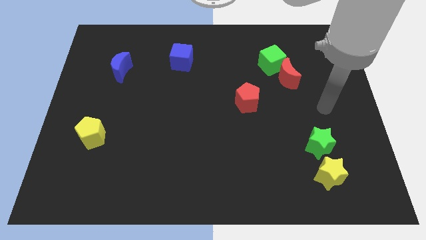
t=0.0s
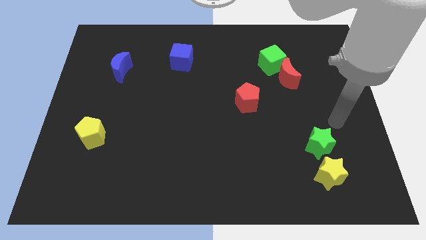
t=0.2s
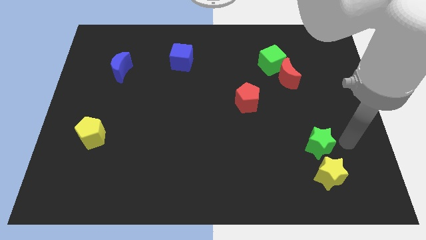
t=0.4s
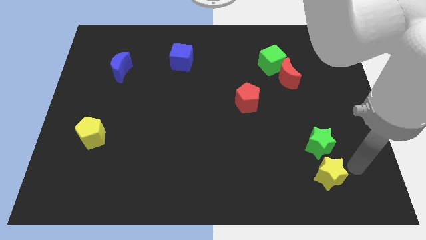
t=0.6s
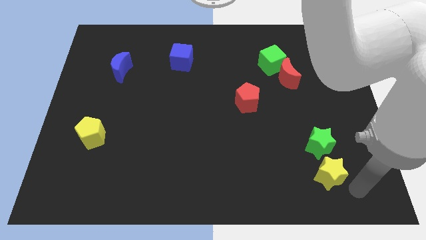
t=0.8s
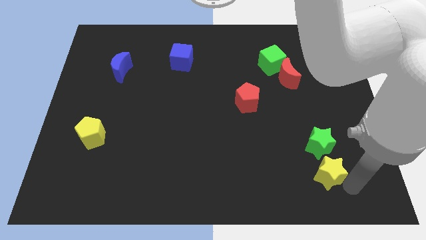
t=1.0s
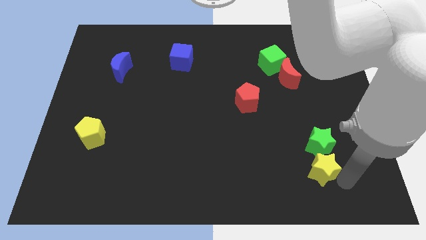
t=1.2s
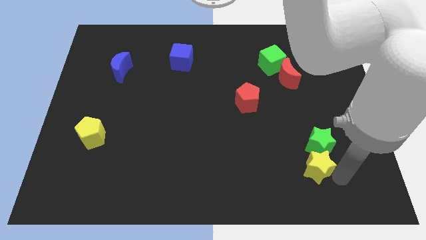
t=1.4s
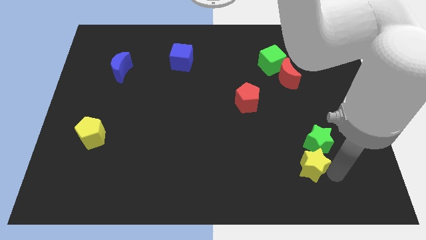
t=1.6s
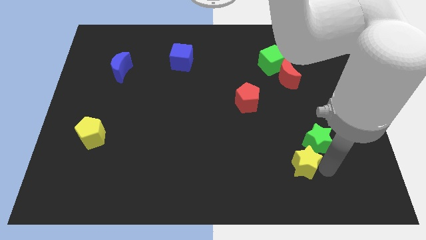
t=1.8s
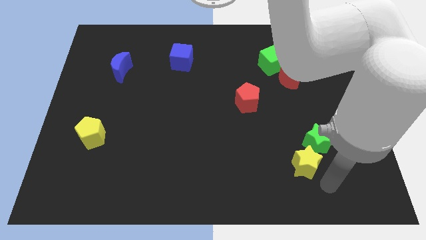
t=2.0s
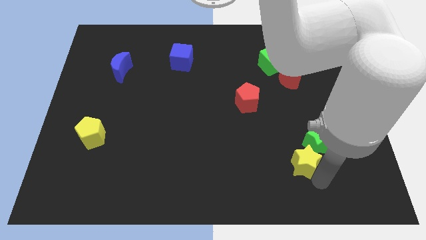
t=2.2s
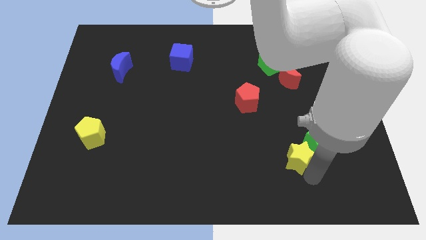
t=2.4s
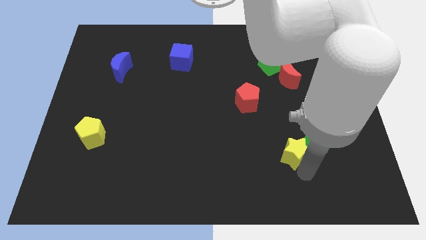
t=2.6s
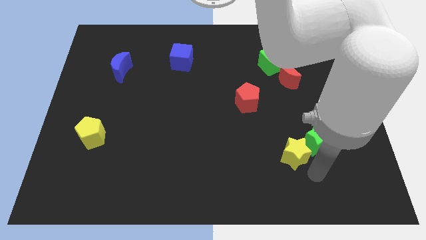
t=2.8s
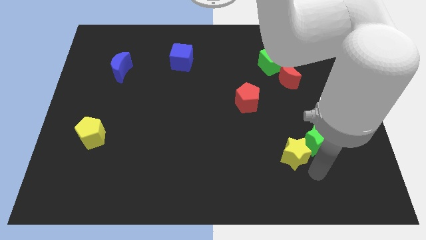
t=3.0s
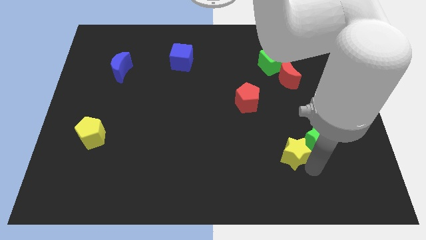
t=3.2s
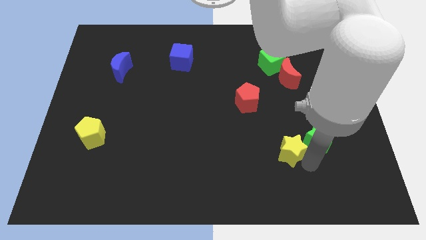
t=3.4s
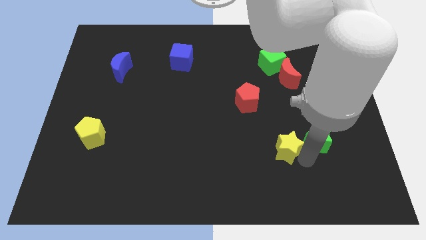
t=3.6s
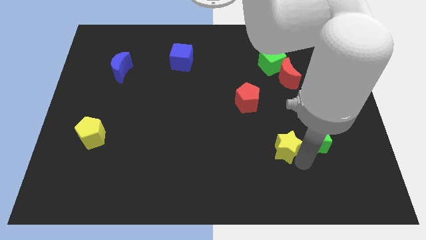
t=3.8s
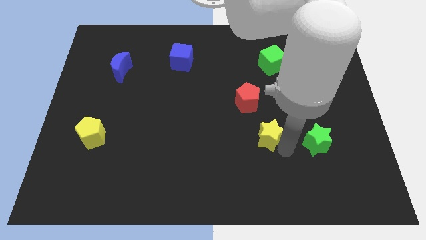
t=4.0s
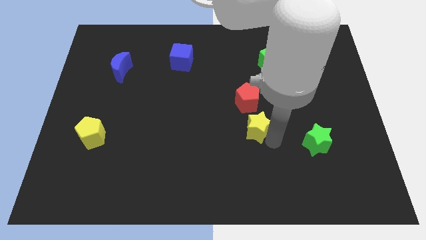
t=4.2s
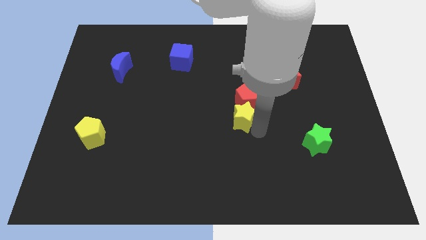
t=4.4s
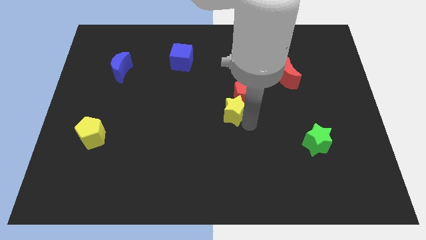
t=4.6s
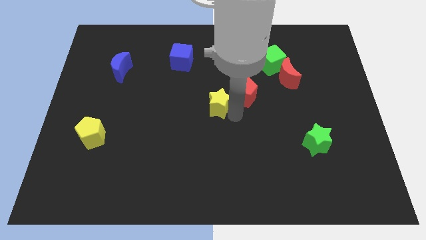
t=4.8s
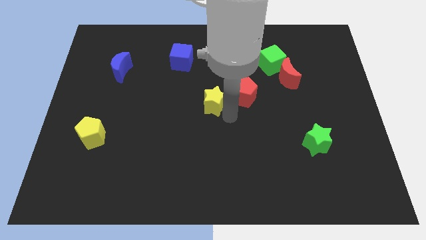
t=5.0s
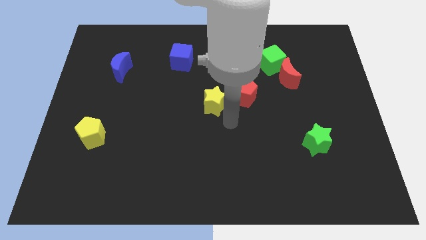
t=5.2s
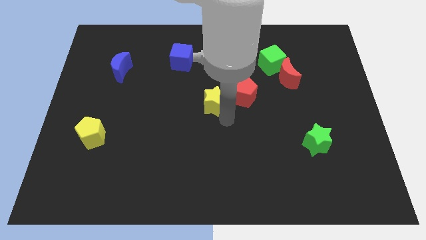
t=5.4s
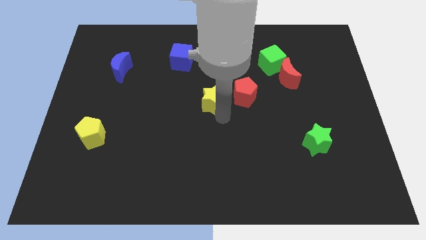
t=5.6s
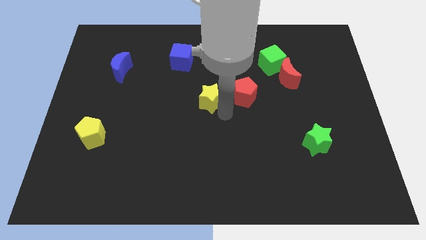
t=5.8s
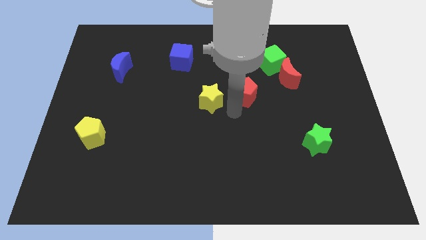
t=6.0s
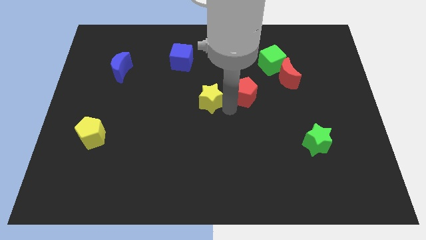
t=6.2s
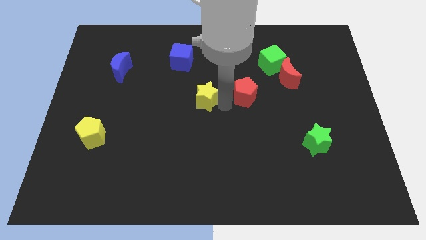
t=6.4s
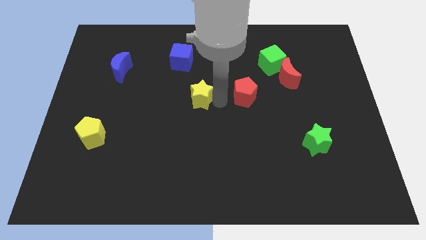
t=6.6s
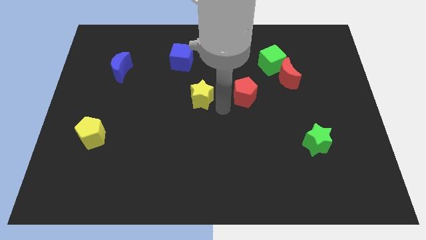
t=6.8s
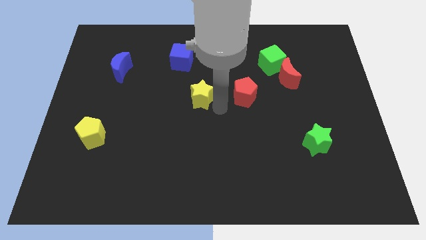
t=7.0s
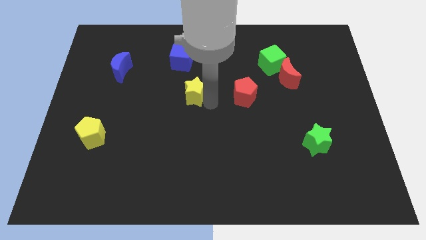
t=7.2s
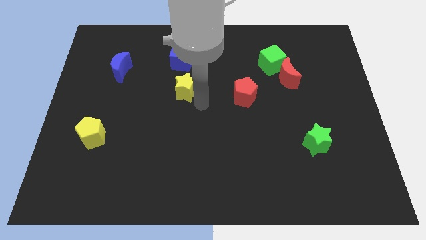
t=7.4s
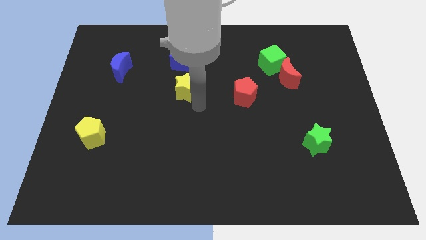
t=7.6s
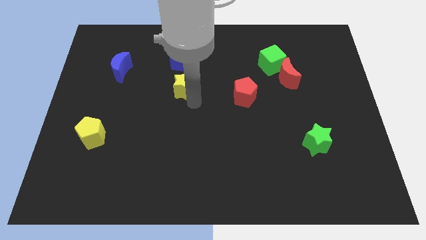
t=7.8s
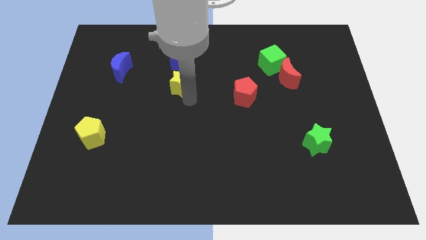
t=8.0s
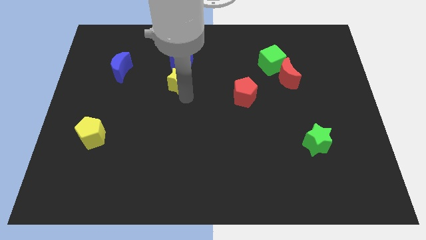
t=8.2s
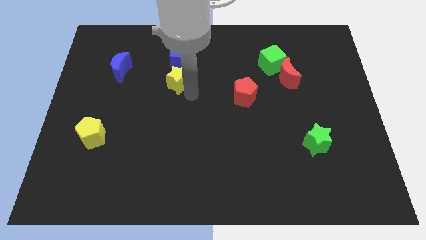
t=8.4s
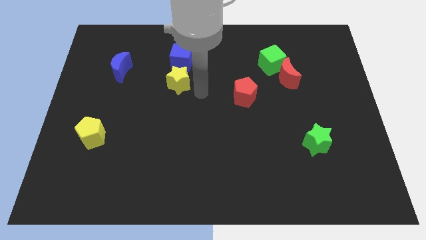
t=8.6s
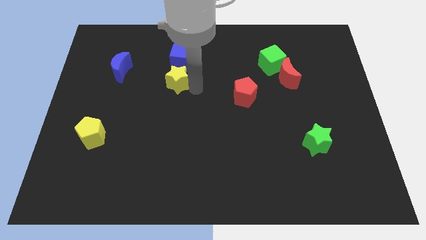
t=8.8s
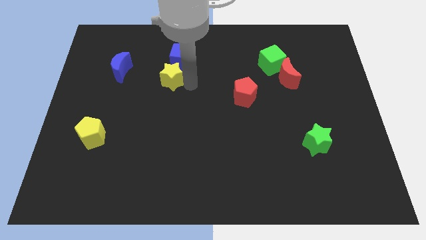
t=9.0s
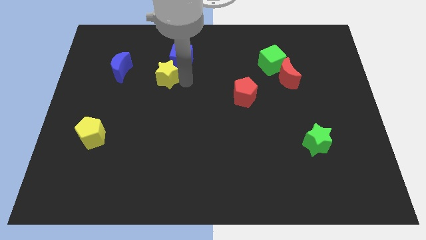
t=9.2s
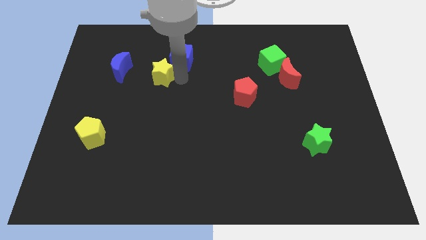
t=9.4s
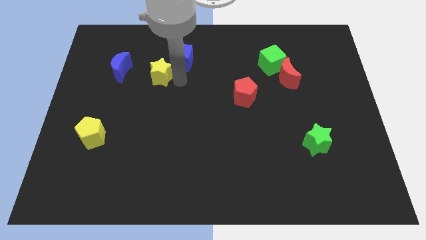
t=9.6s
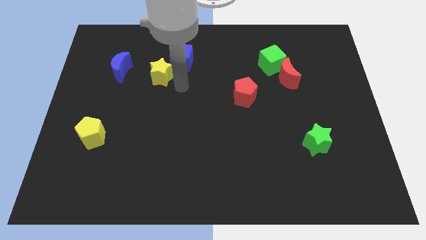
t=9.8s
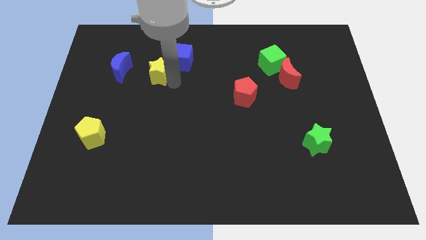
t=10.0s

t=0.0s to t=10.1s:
put the yellow star left of the blue cube

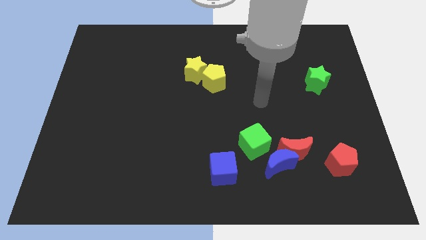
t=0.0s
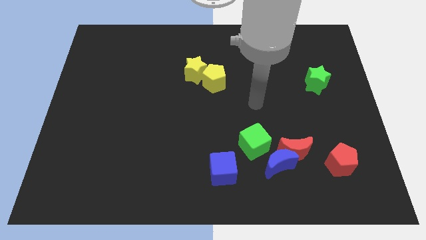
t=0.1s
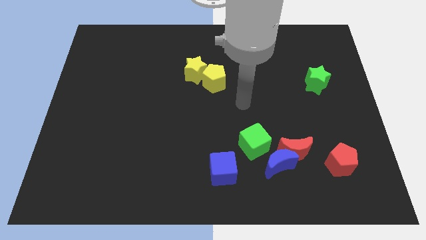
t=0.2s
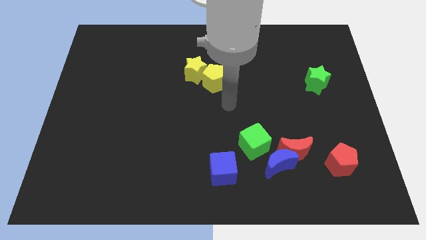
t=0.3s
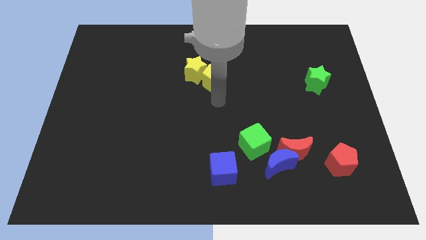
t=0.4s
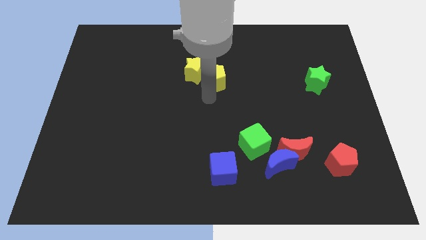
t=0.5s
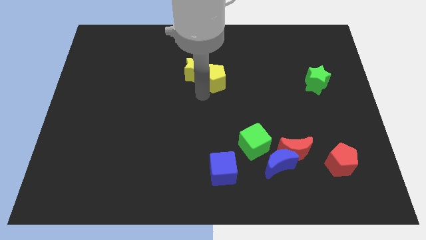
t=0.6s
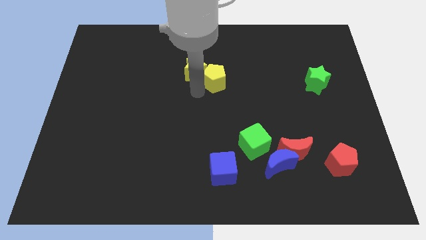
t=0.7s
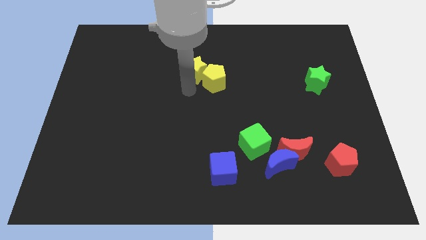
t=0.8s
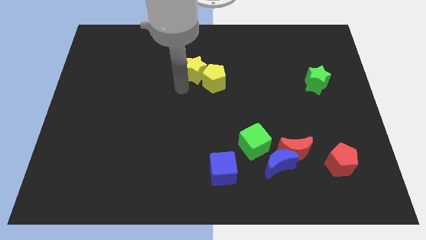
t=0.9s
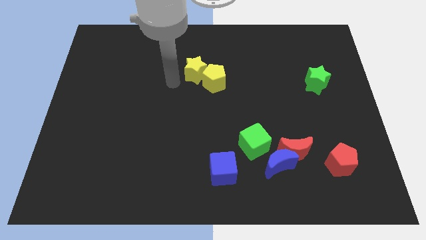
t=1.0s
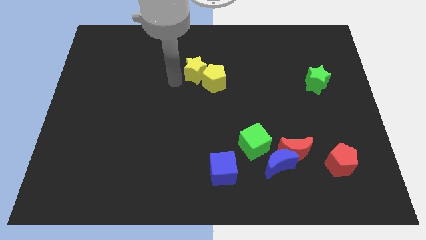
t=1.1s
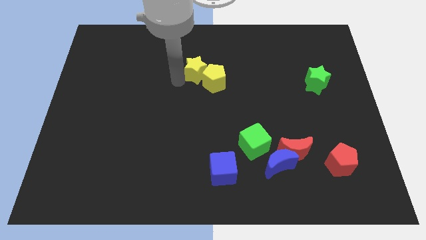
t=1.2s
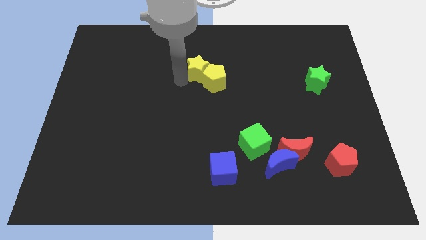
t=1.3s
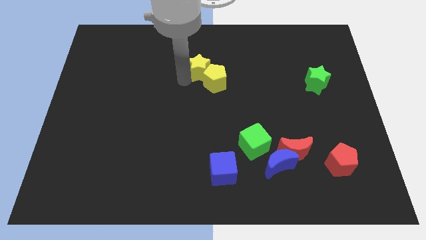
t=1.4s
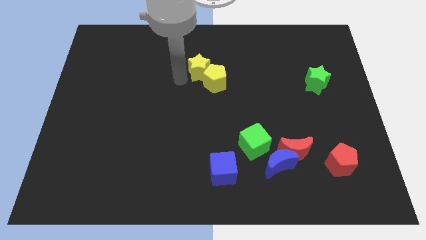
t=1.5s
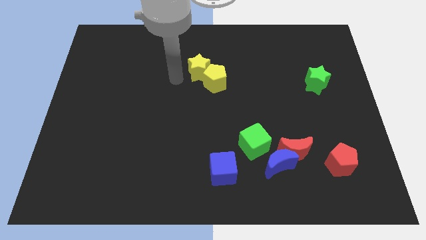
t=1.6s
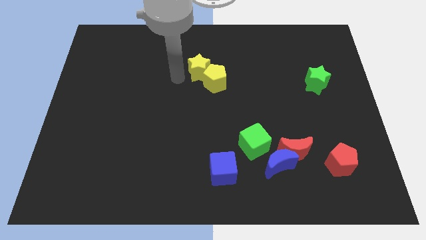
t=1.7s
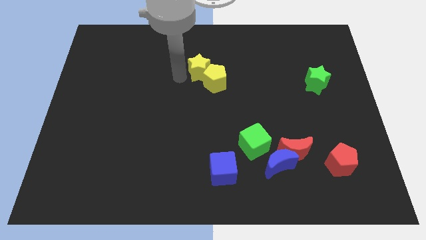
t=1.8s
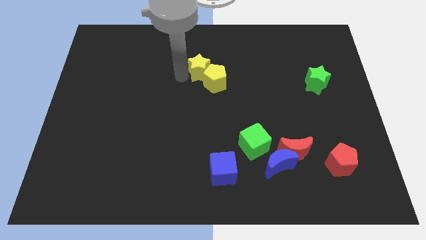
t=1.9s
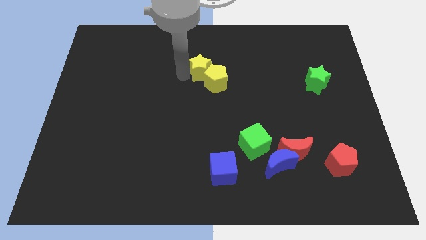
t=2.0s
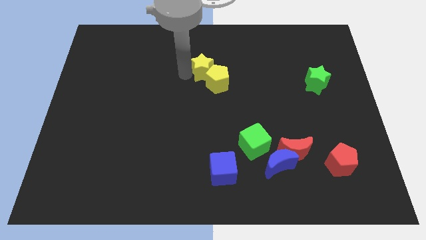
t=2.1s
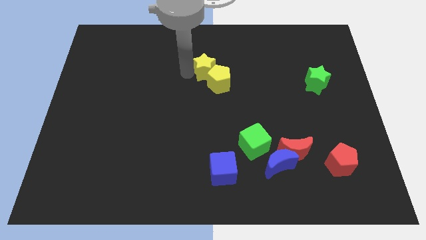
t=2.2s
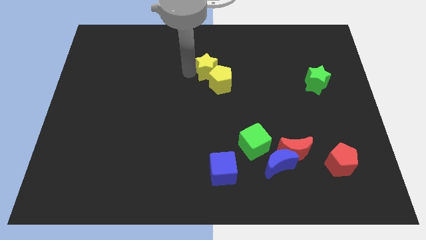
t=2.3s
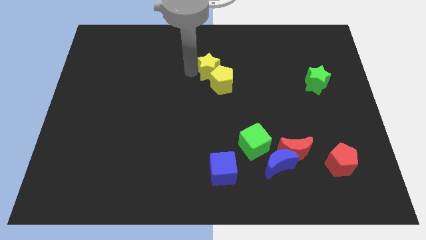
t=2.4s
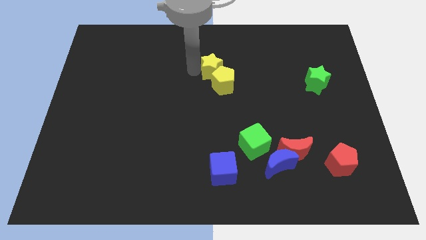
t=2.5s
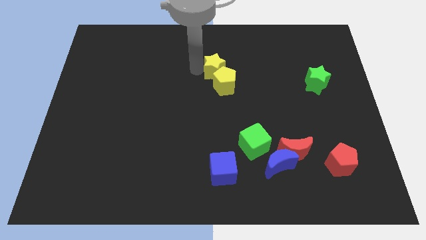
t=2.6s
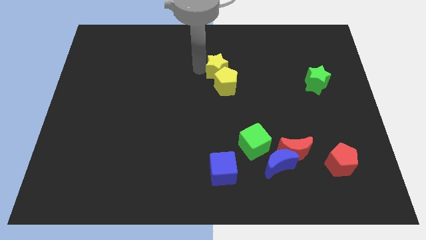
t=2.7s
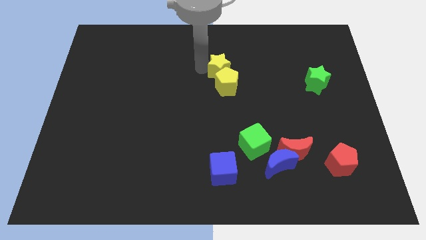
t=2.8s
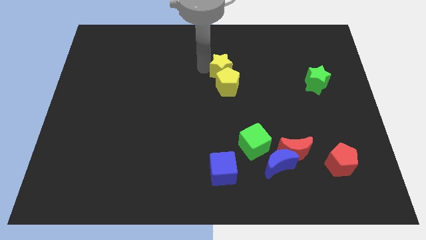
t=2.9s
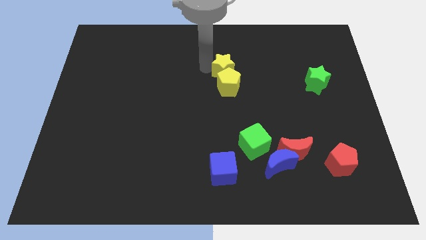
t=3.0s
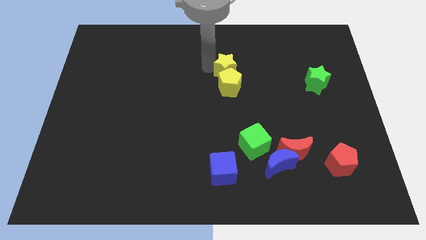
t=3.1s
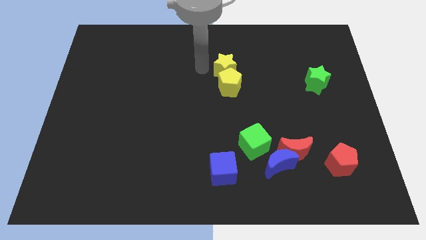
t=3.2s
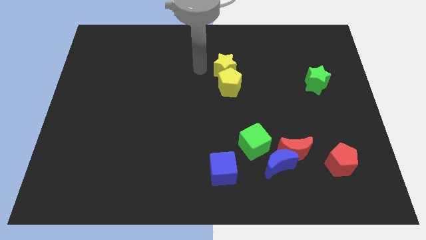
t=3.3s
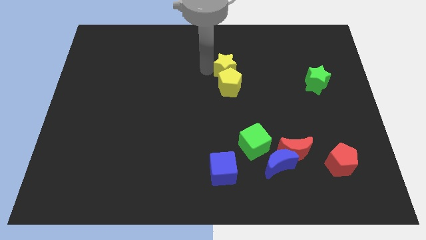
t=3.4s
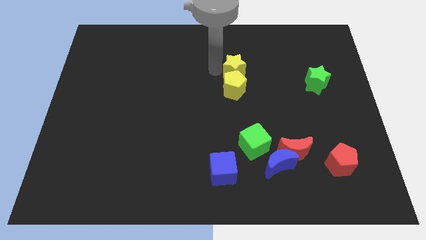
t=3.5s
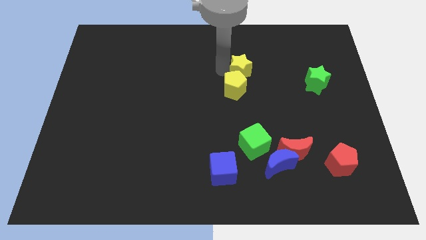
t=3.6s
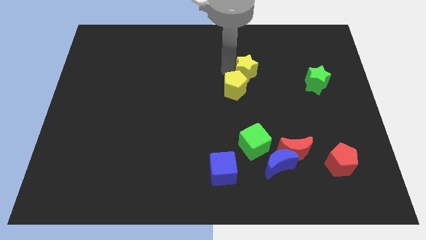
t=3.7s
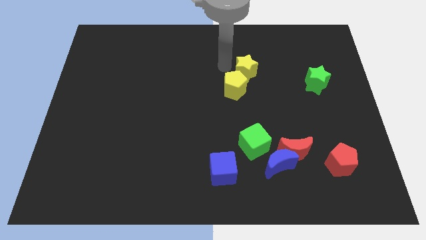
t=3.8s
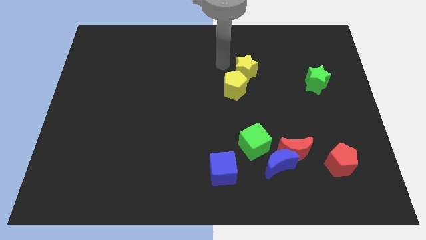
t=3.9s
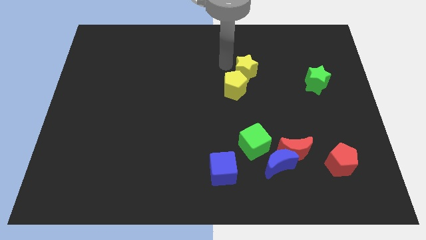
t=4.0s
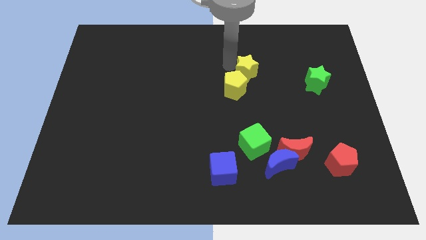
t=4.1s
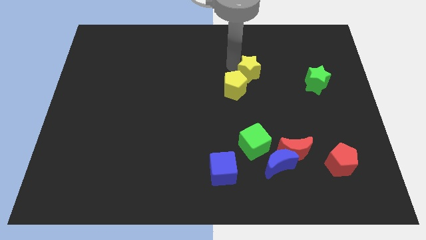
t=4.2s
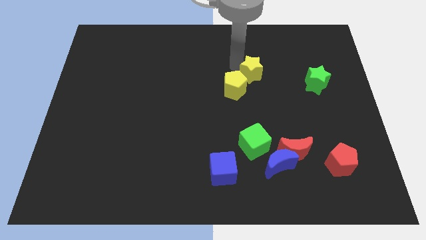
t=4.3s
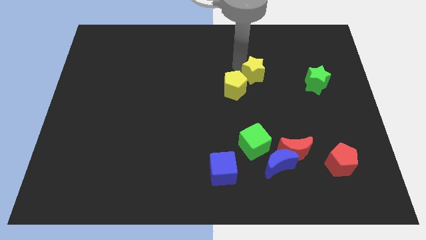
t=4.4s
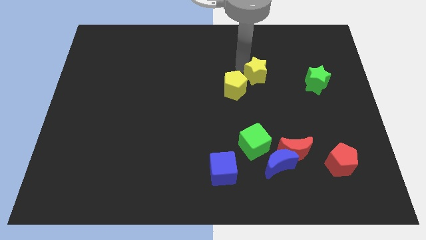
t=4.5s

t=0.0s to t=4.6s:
slide the yellow star just left of the green star
